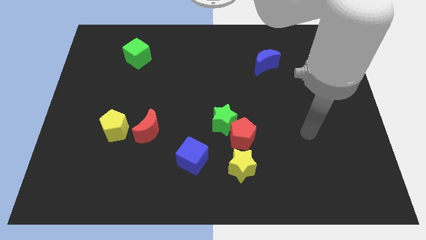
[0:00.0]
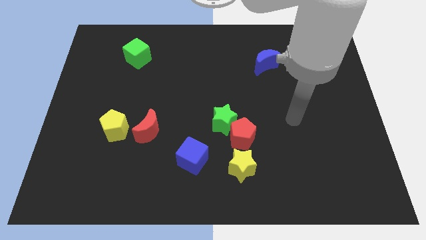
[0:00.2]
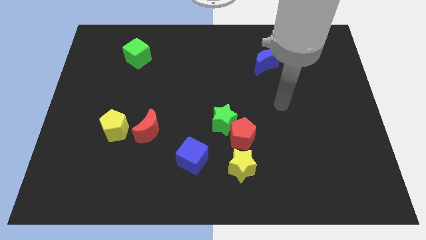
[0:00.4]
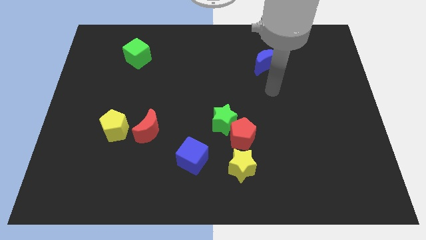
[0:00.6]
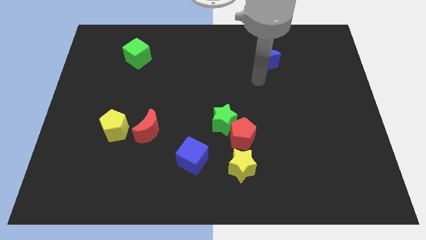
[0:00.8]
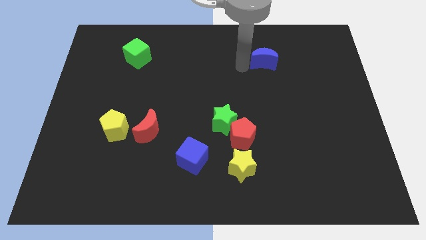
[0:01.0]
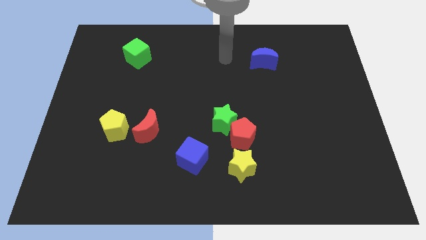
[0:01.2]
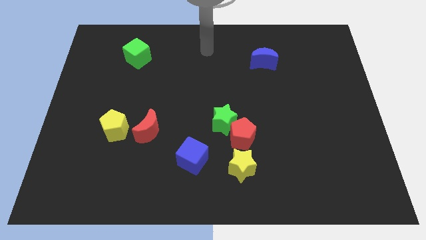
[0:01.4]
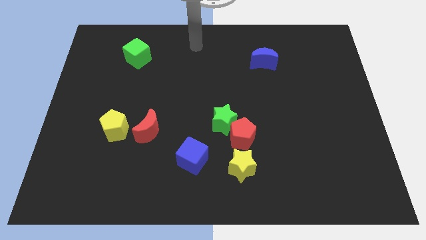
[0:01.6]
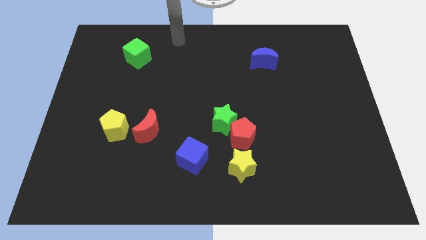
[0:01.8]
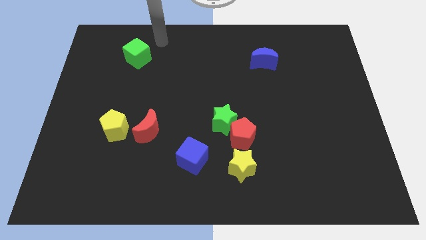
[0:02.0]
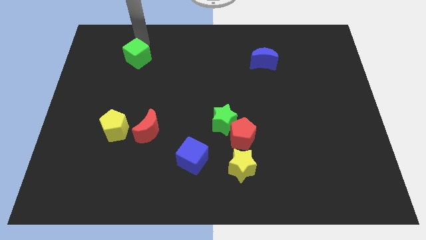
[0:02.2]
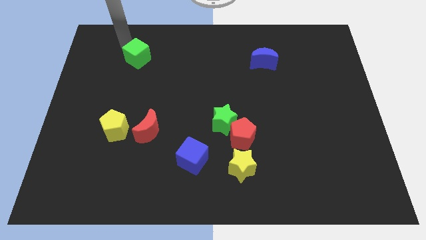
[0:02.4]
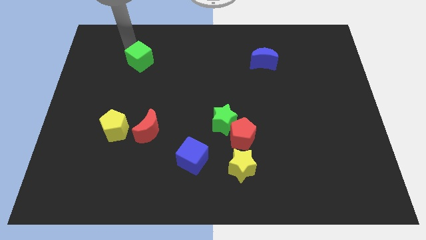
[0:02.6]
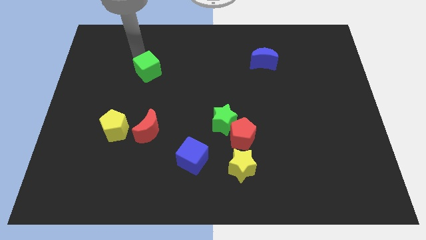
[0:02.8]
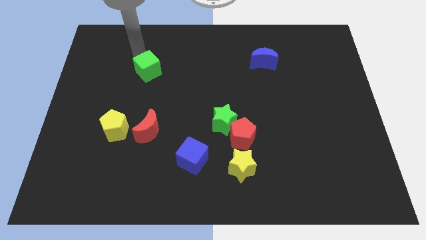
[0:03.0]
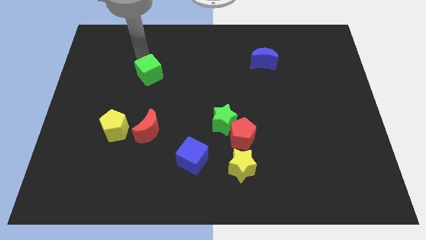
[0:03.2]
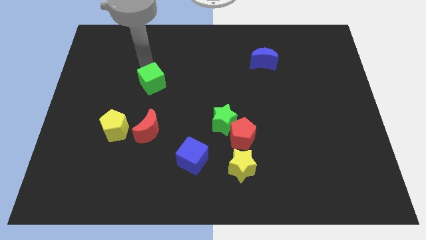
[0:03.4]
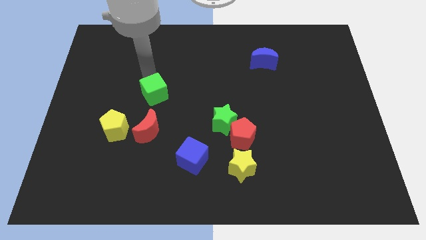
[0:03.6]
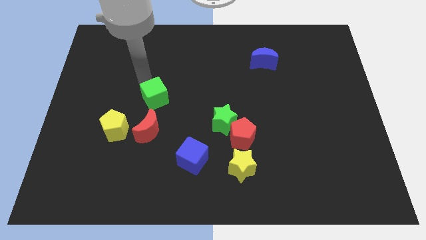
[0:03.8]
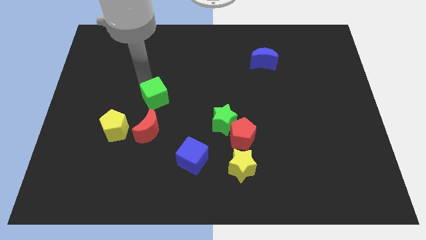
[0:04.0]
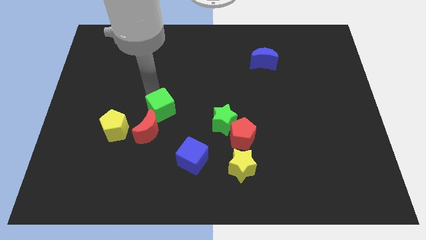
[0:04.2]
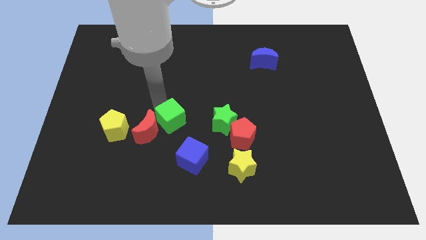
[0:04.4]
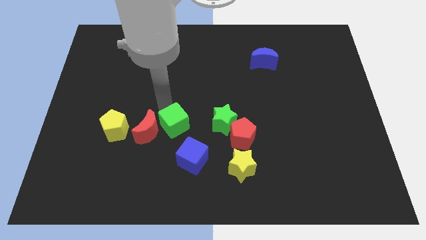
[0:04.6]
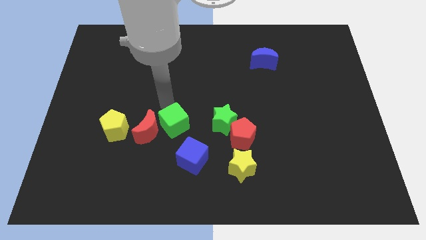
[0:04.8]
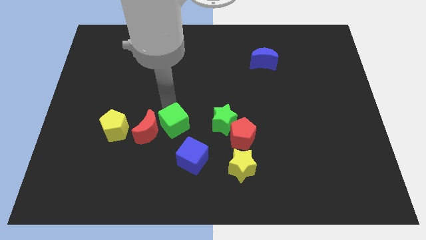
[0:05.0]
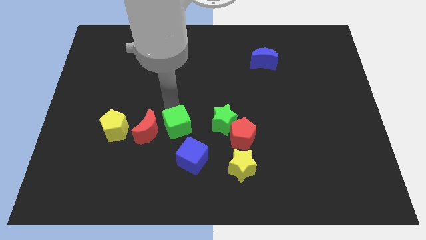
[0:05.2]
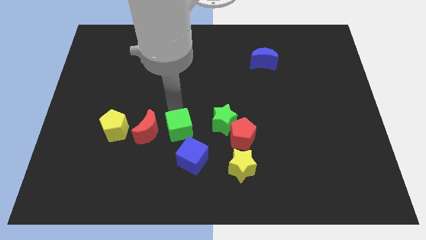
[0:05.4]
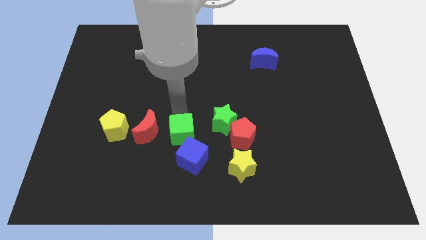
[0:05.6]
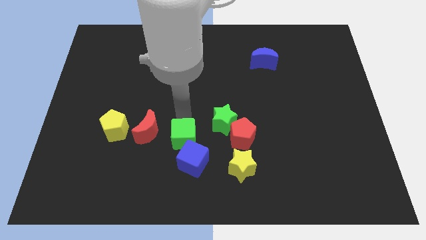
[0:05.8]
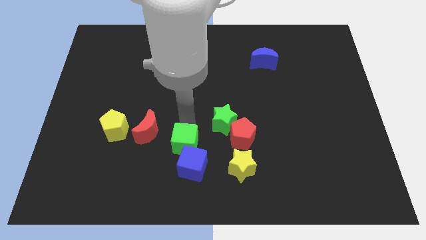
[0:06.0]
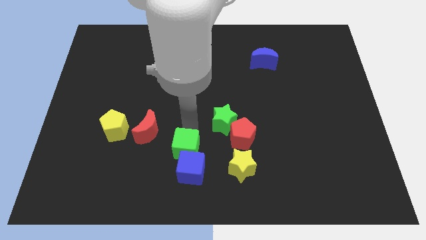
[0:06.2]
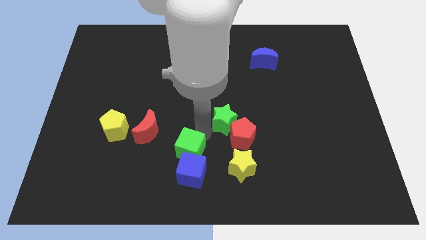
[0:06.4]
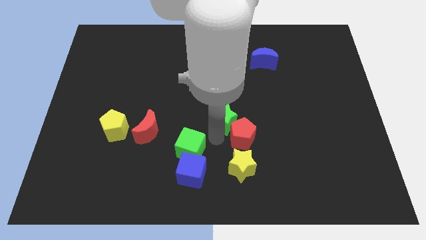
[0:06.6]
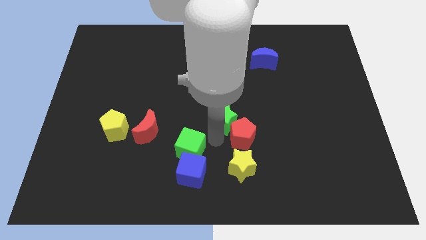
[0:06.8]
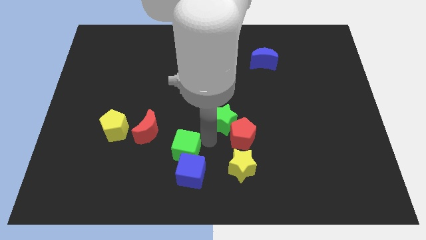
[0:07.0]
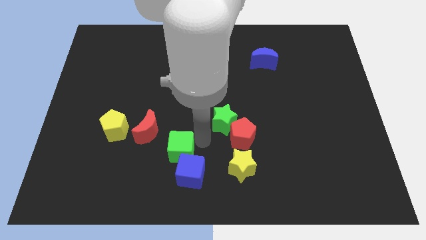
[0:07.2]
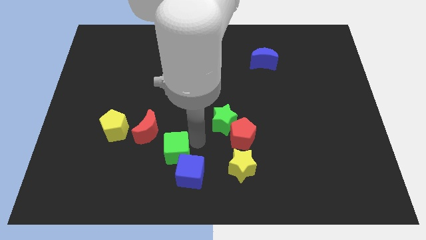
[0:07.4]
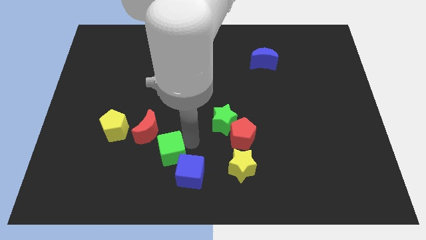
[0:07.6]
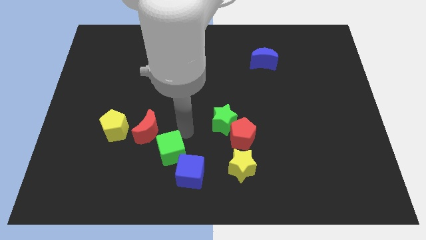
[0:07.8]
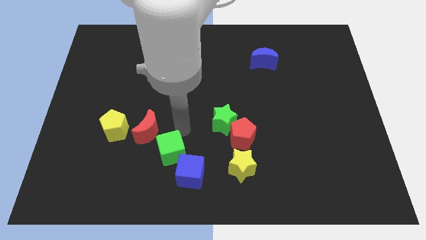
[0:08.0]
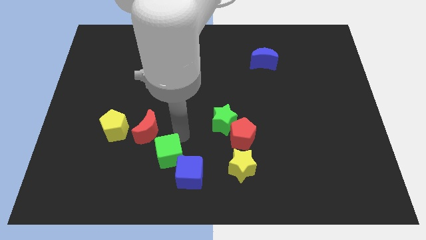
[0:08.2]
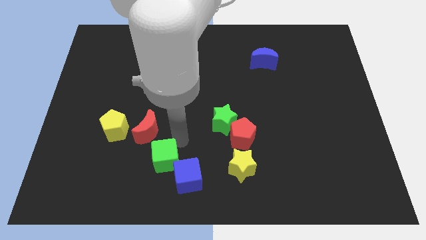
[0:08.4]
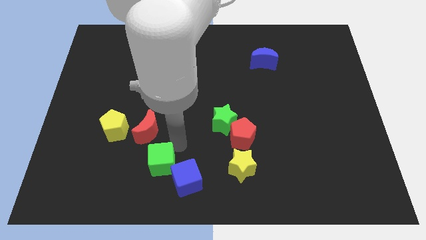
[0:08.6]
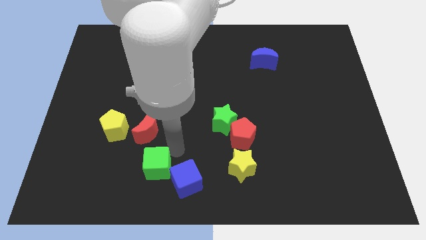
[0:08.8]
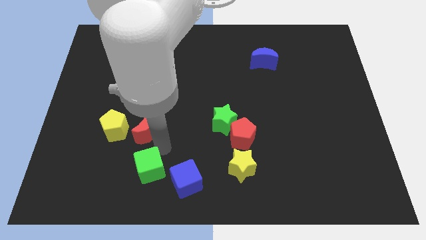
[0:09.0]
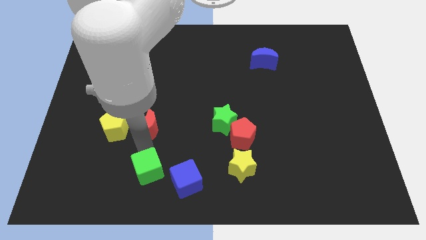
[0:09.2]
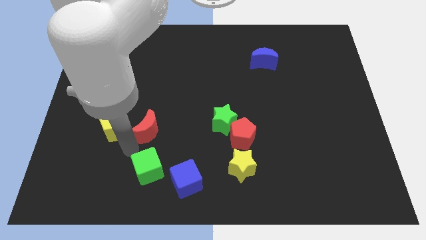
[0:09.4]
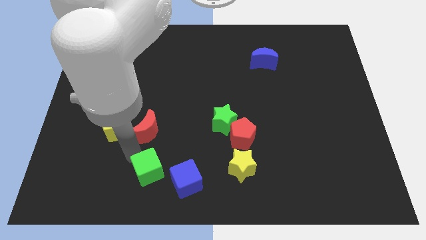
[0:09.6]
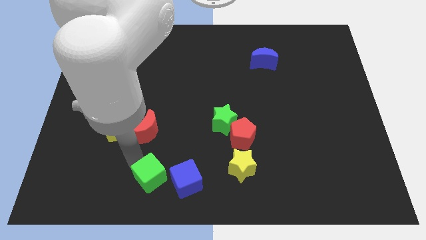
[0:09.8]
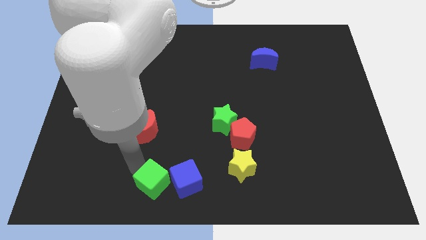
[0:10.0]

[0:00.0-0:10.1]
slide the green cube to the bottom

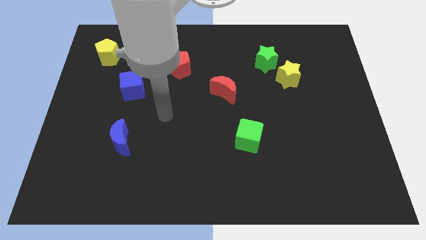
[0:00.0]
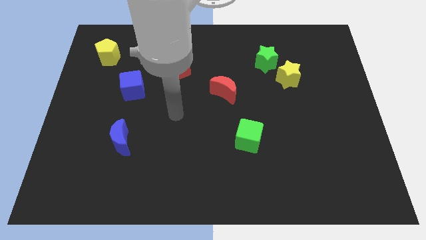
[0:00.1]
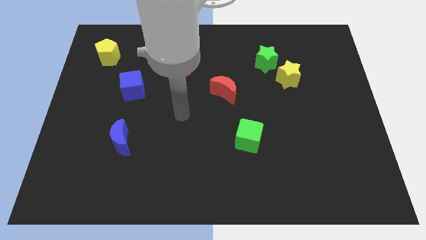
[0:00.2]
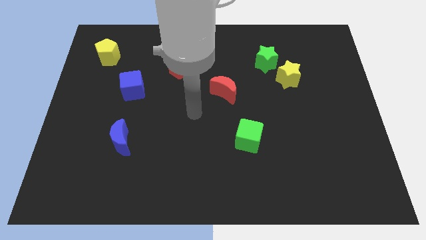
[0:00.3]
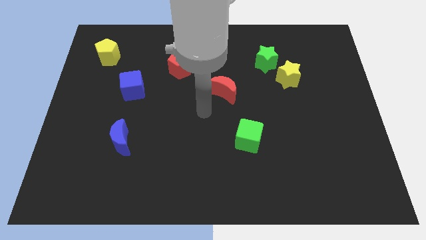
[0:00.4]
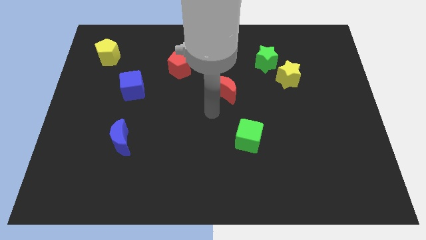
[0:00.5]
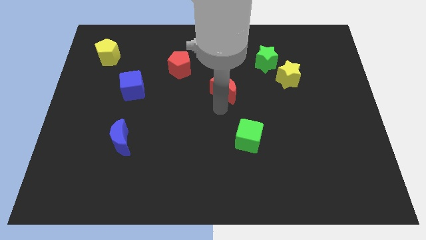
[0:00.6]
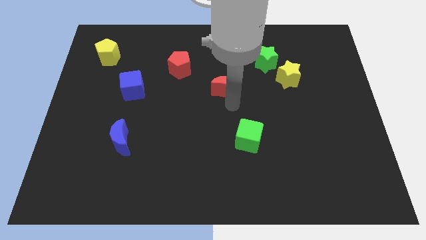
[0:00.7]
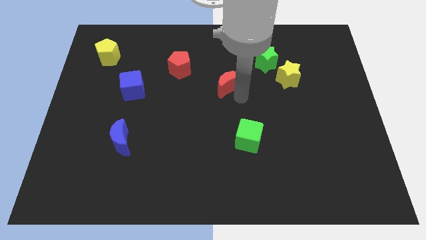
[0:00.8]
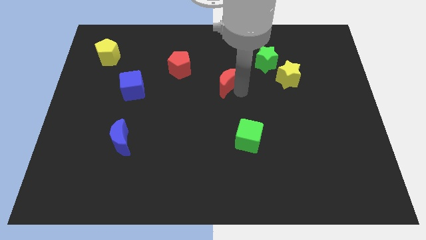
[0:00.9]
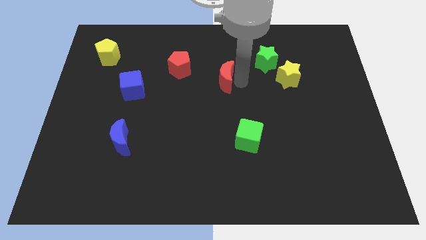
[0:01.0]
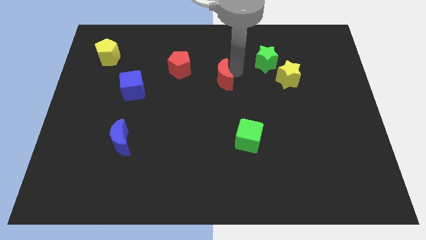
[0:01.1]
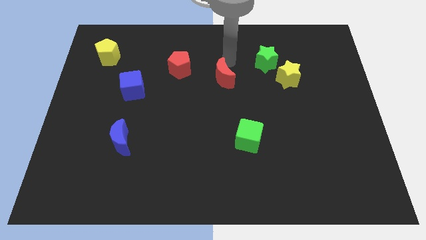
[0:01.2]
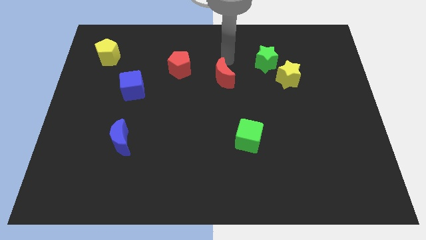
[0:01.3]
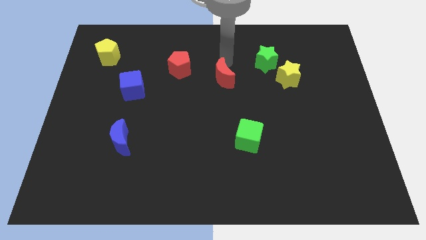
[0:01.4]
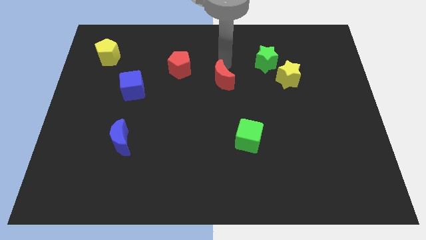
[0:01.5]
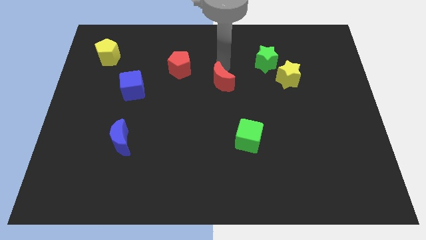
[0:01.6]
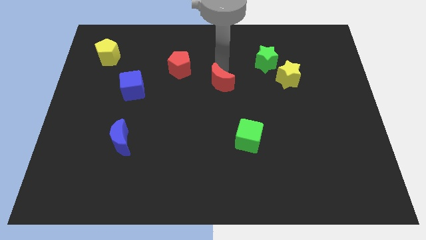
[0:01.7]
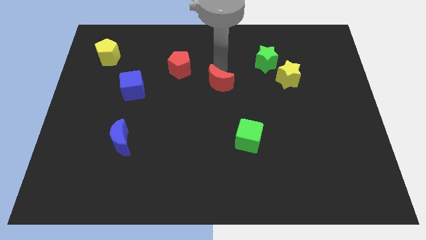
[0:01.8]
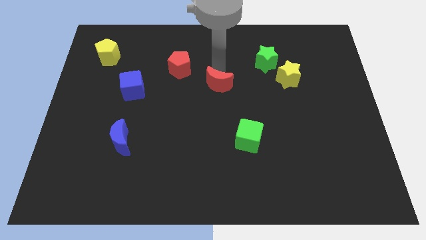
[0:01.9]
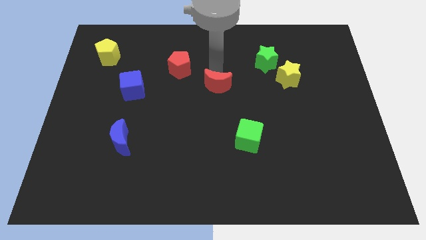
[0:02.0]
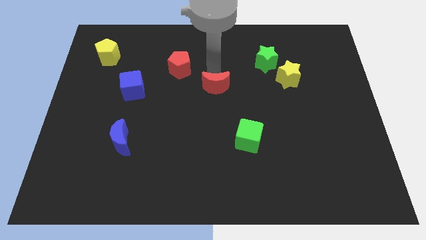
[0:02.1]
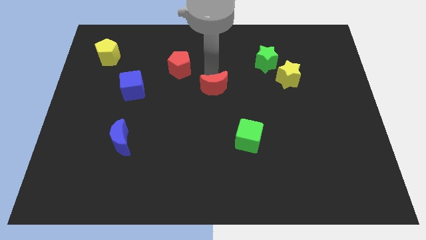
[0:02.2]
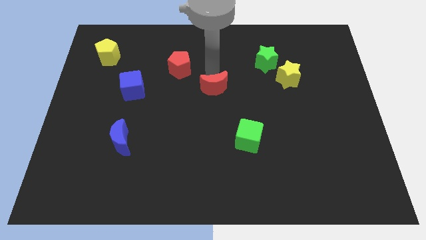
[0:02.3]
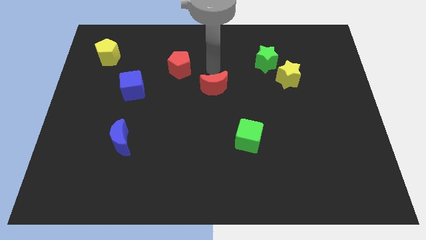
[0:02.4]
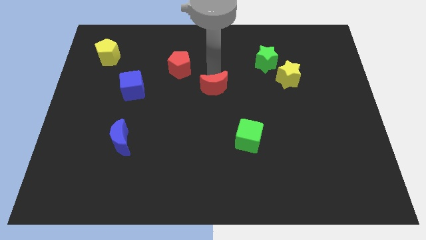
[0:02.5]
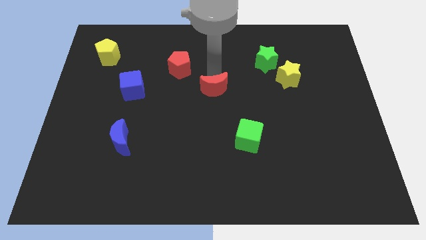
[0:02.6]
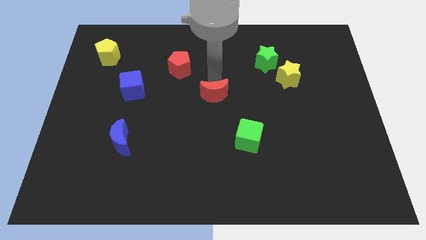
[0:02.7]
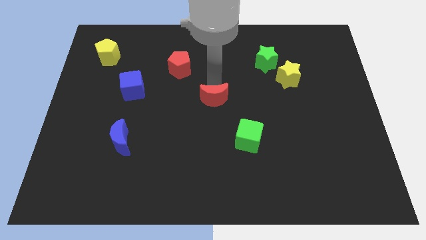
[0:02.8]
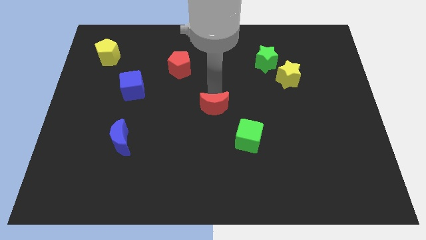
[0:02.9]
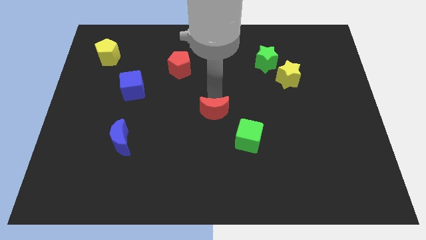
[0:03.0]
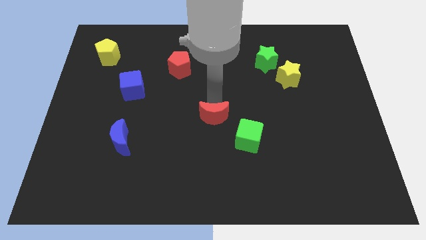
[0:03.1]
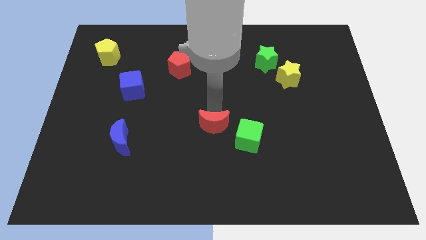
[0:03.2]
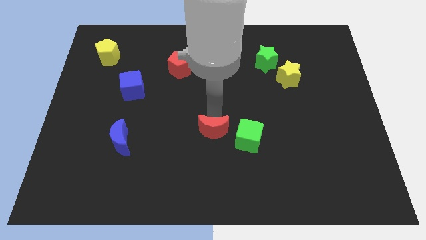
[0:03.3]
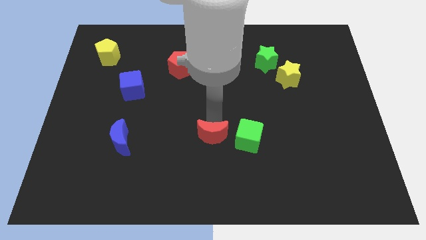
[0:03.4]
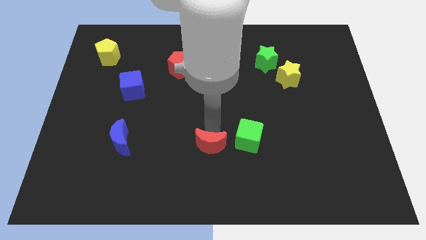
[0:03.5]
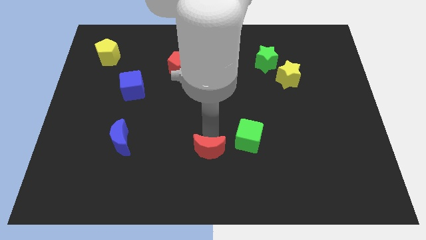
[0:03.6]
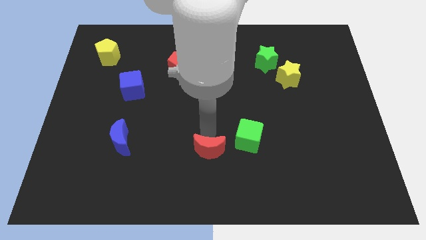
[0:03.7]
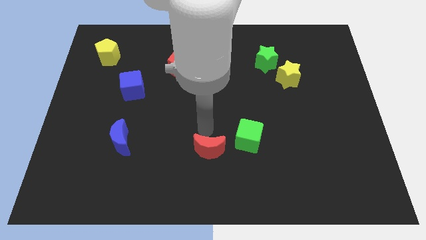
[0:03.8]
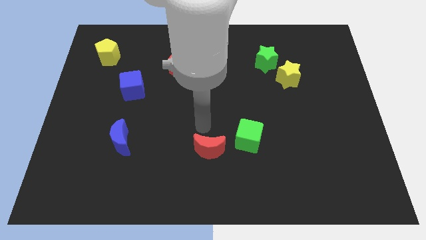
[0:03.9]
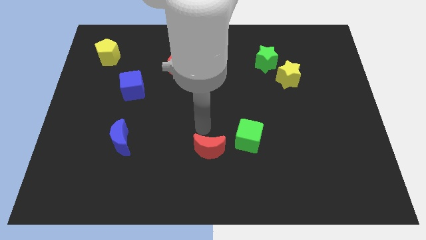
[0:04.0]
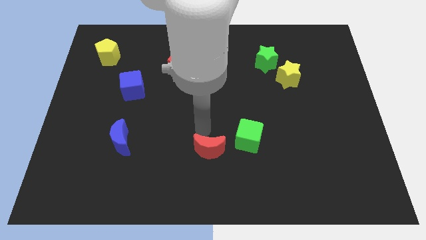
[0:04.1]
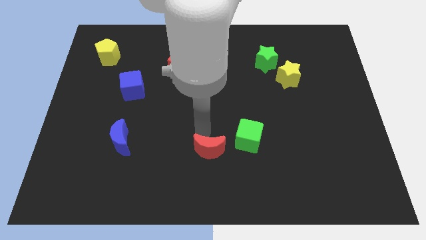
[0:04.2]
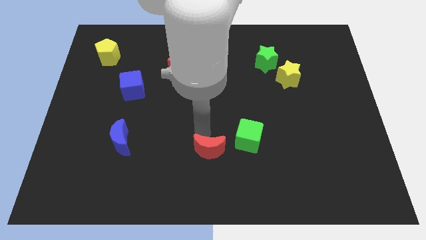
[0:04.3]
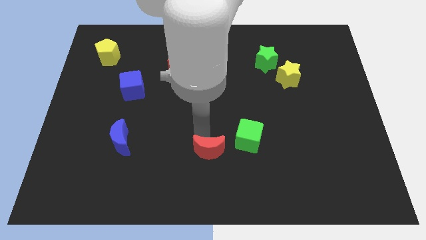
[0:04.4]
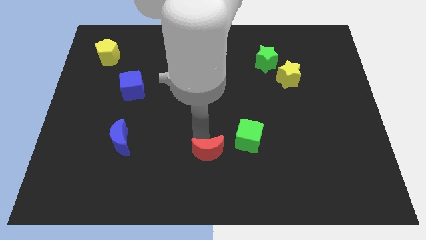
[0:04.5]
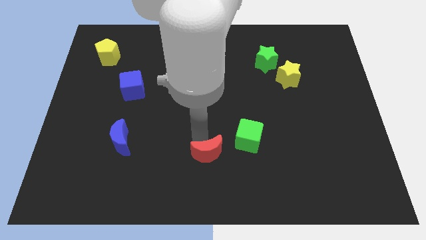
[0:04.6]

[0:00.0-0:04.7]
slide the red moon to the bottom side
